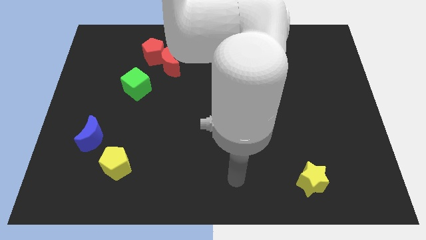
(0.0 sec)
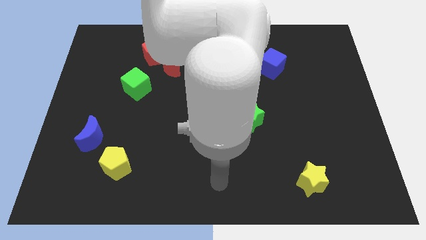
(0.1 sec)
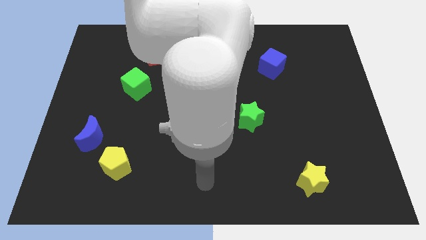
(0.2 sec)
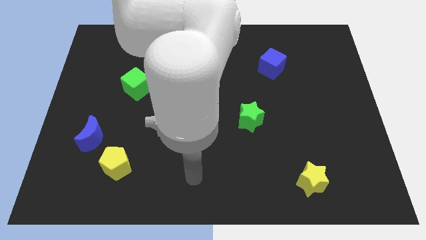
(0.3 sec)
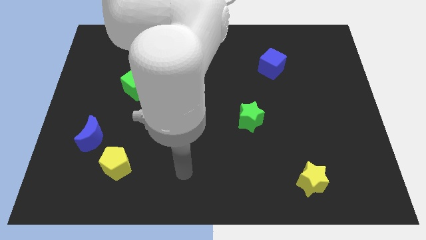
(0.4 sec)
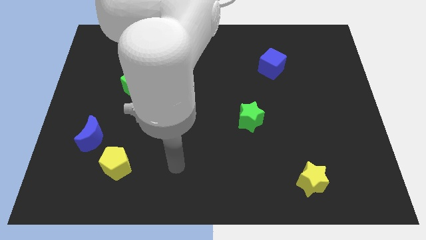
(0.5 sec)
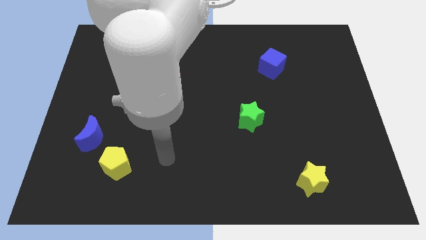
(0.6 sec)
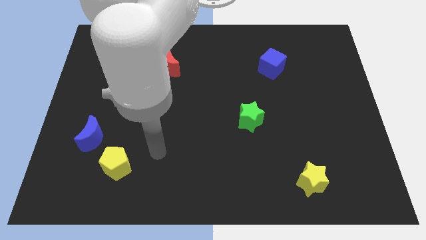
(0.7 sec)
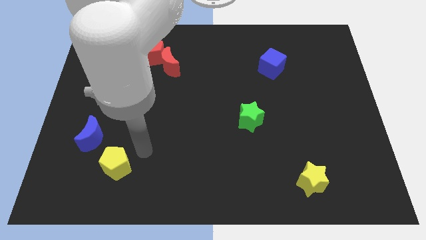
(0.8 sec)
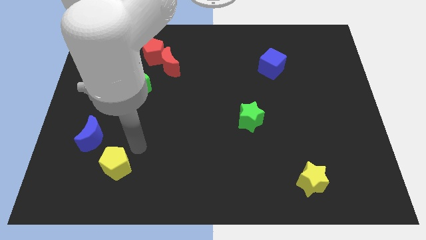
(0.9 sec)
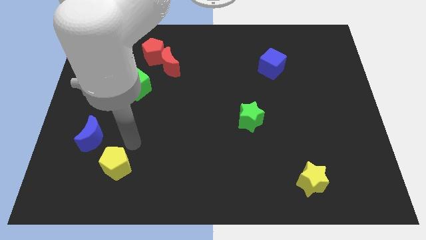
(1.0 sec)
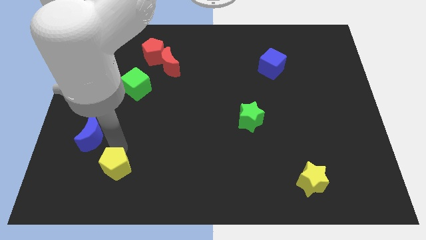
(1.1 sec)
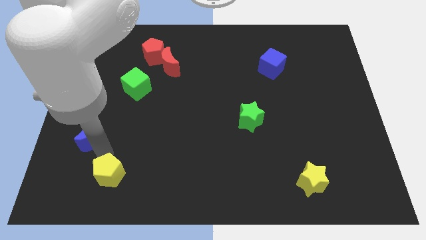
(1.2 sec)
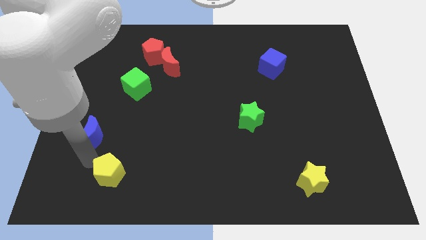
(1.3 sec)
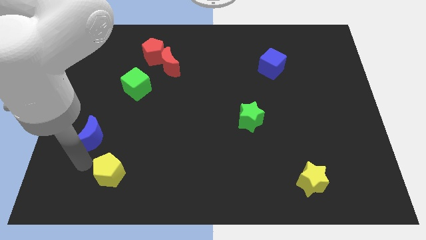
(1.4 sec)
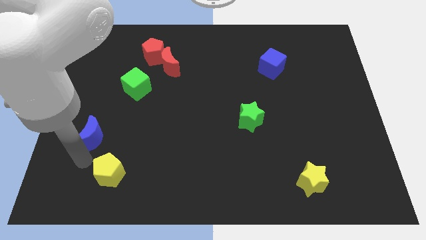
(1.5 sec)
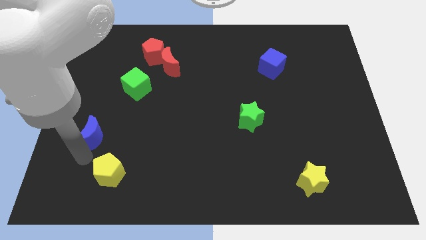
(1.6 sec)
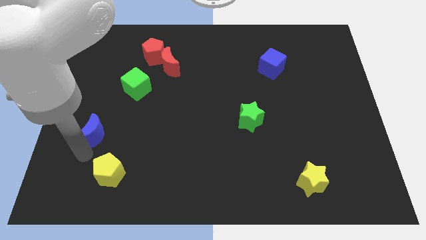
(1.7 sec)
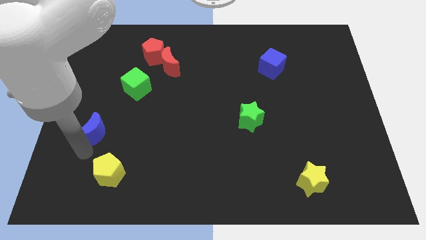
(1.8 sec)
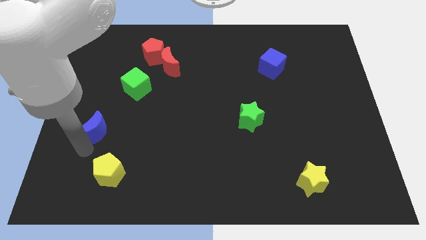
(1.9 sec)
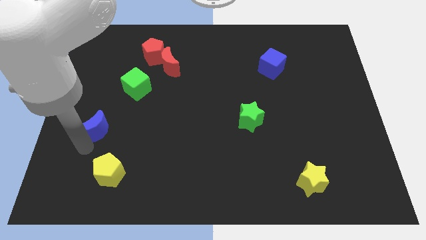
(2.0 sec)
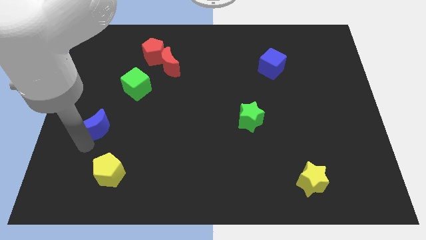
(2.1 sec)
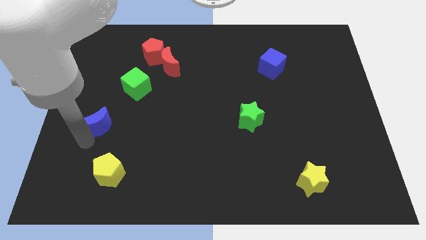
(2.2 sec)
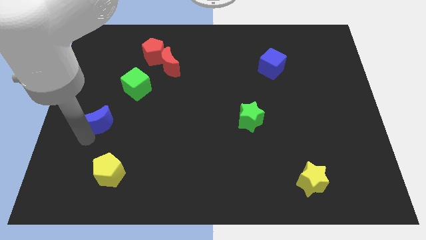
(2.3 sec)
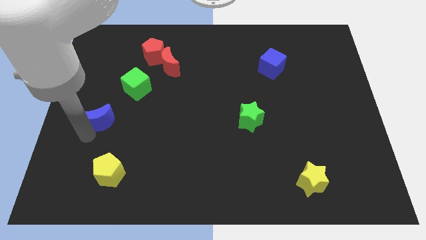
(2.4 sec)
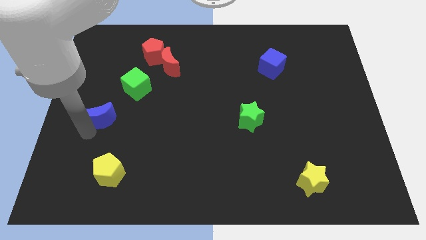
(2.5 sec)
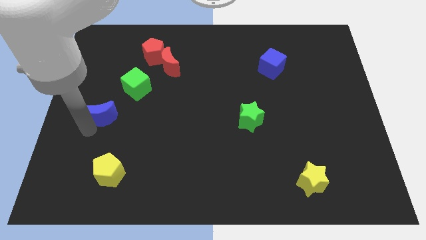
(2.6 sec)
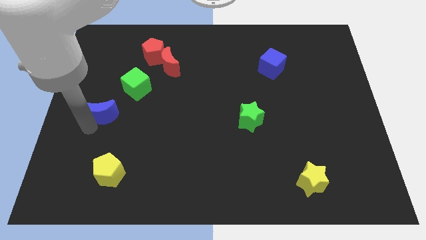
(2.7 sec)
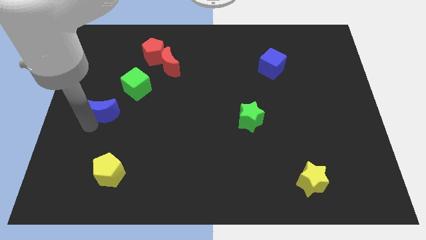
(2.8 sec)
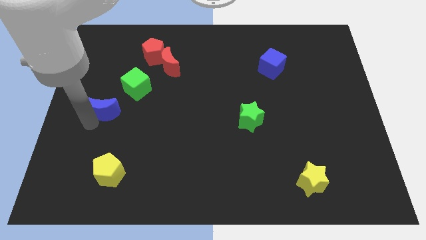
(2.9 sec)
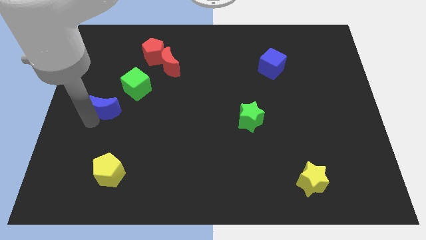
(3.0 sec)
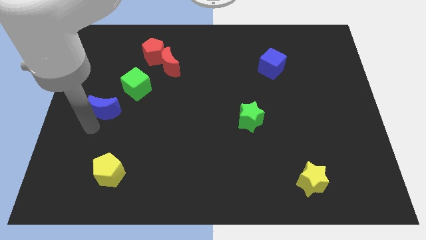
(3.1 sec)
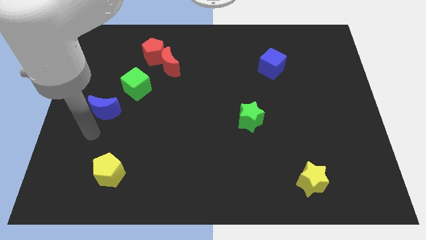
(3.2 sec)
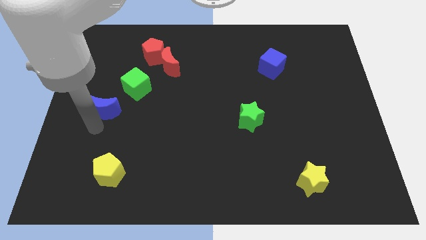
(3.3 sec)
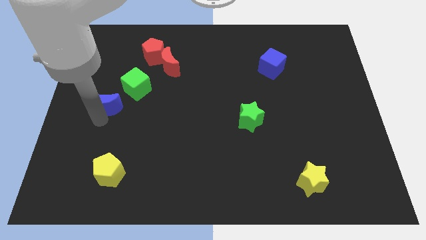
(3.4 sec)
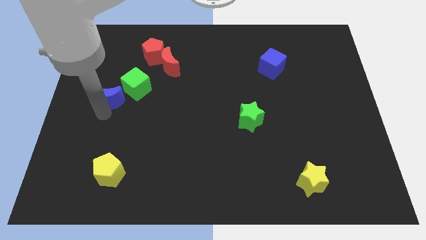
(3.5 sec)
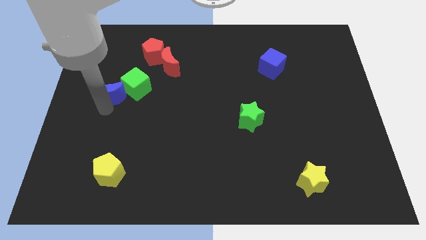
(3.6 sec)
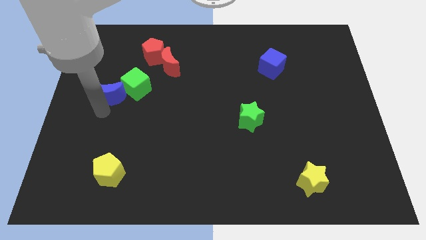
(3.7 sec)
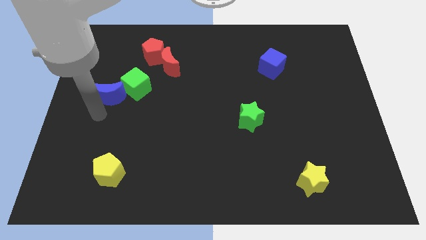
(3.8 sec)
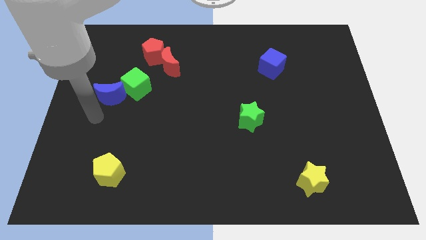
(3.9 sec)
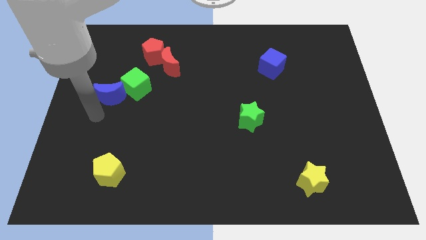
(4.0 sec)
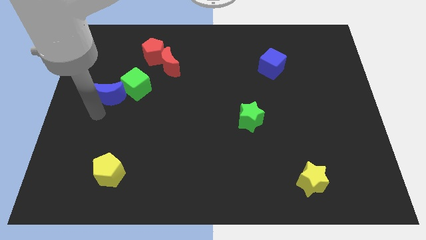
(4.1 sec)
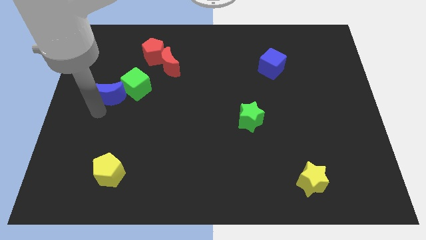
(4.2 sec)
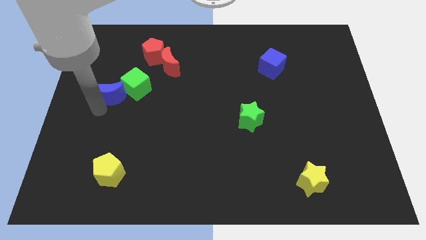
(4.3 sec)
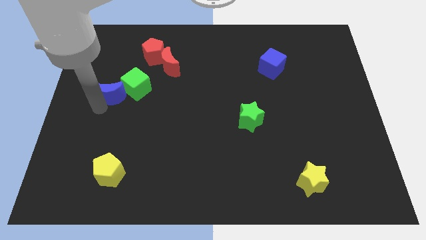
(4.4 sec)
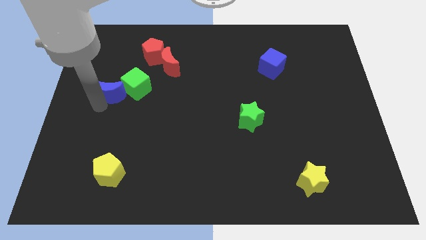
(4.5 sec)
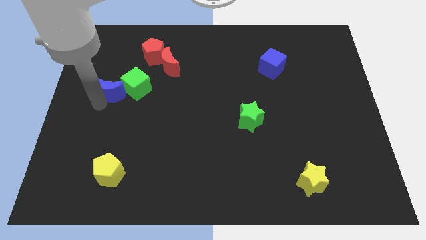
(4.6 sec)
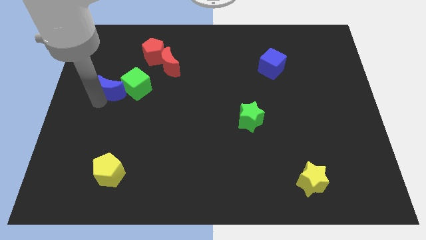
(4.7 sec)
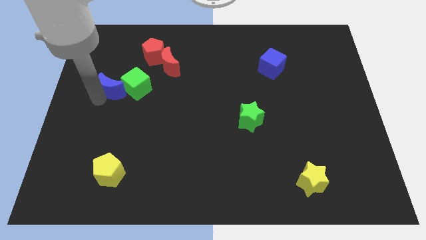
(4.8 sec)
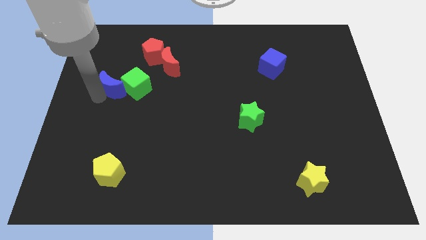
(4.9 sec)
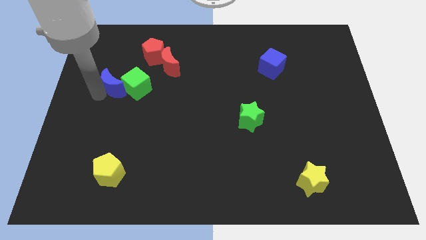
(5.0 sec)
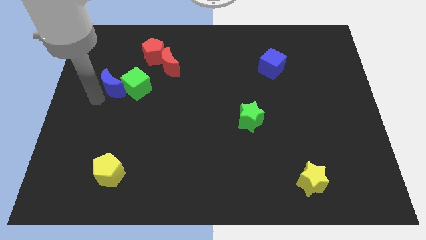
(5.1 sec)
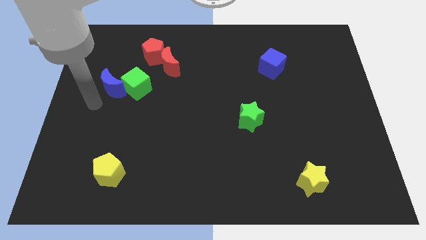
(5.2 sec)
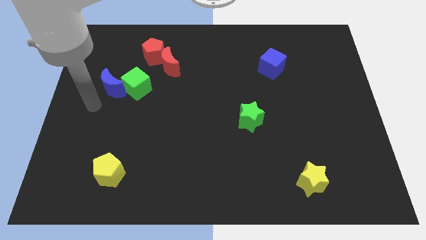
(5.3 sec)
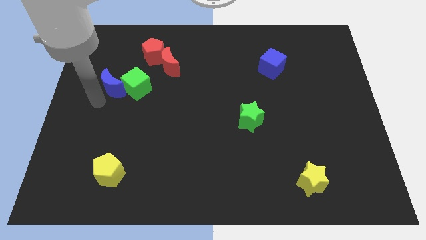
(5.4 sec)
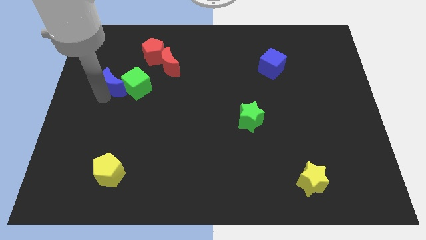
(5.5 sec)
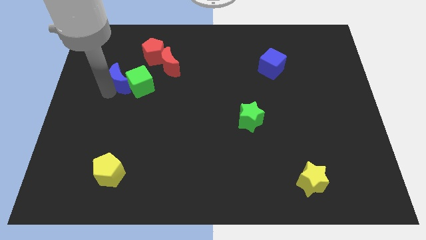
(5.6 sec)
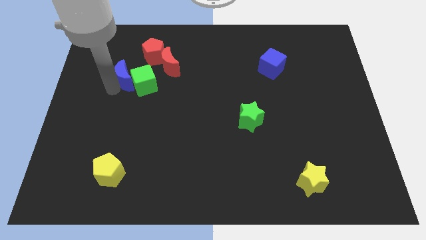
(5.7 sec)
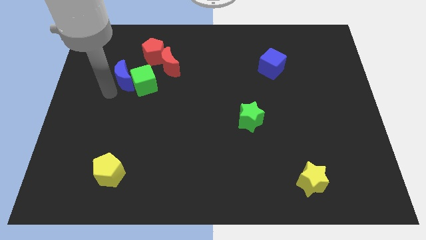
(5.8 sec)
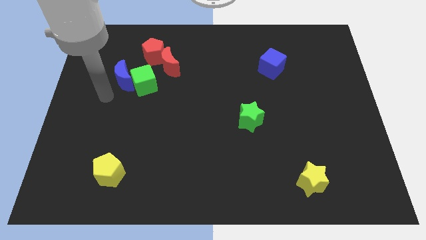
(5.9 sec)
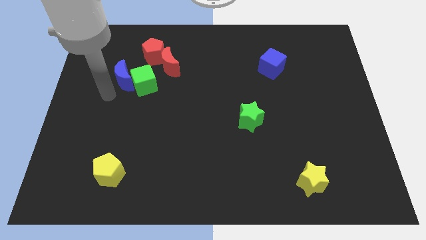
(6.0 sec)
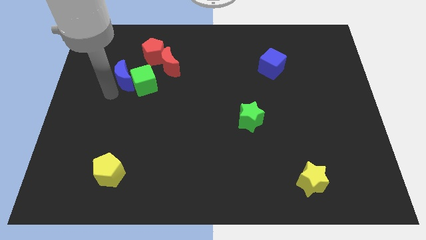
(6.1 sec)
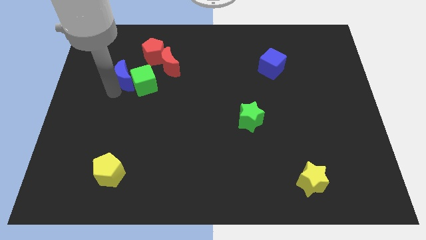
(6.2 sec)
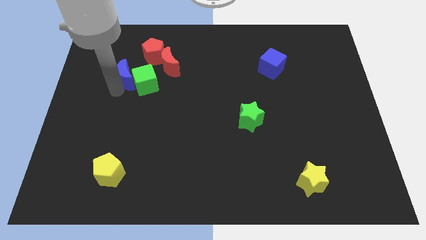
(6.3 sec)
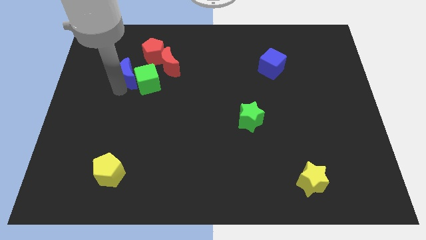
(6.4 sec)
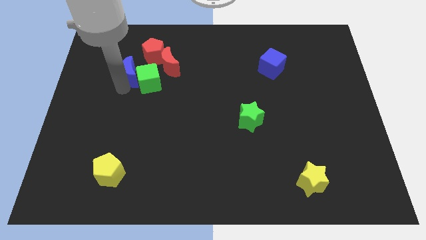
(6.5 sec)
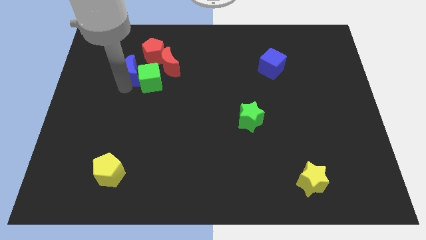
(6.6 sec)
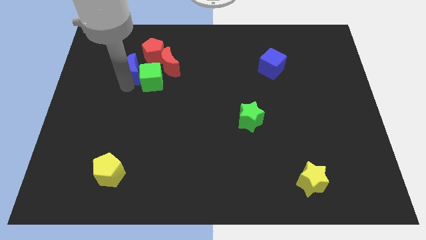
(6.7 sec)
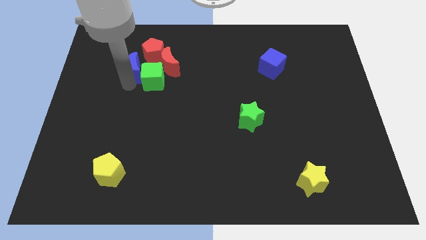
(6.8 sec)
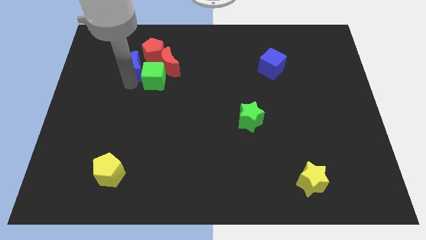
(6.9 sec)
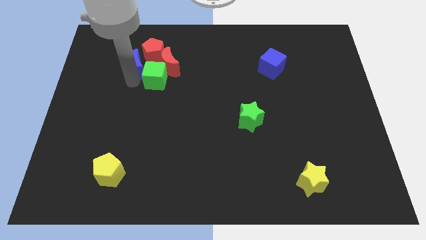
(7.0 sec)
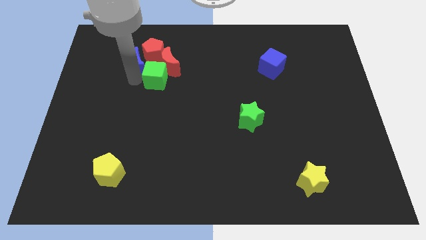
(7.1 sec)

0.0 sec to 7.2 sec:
move the blue moon to the red pentagon
